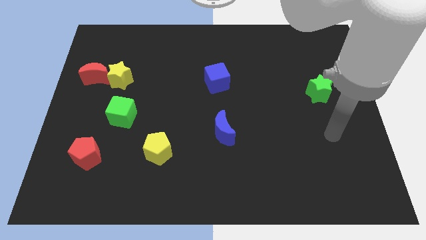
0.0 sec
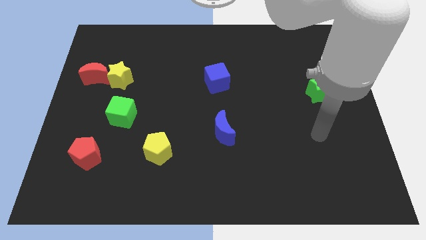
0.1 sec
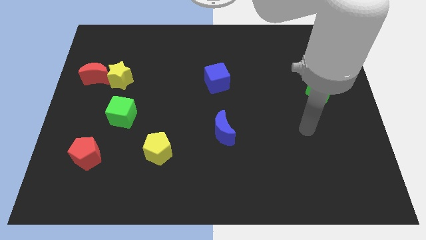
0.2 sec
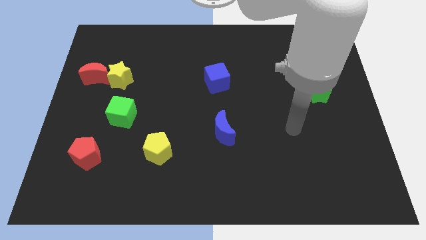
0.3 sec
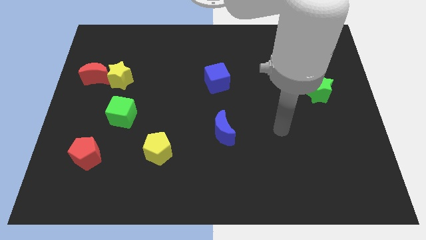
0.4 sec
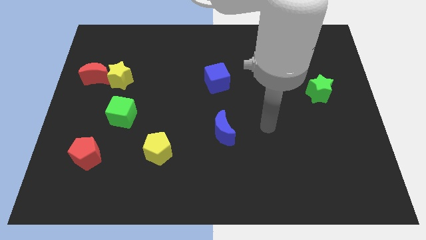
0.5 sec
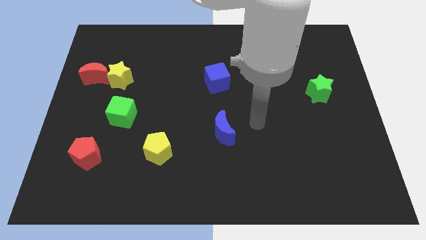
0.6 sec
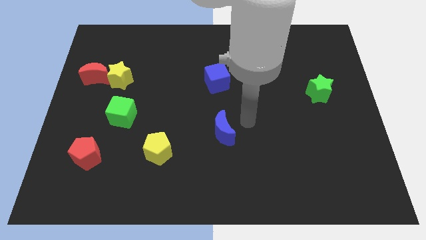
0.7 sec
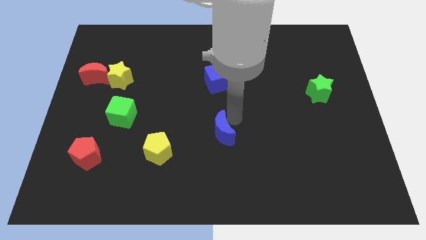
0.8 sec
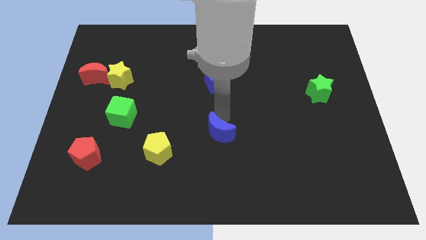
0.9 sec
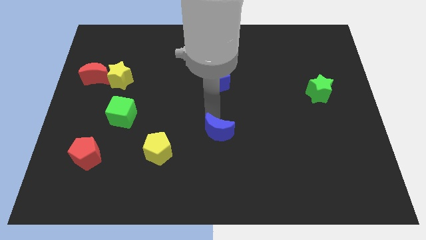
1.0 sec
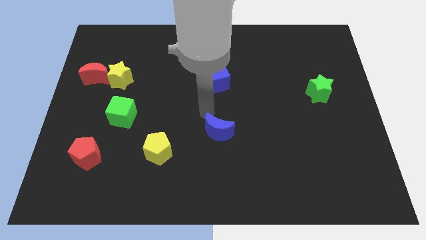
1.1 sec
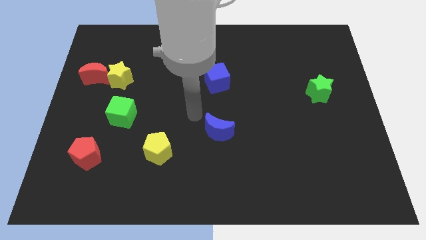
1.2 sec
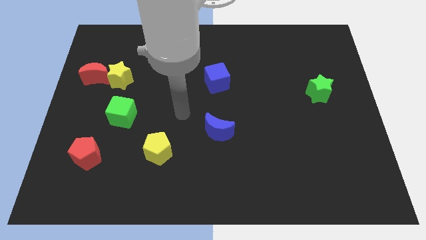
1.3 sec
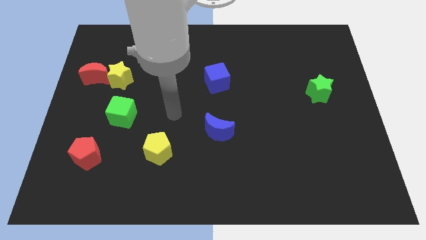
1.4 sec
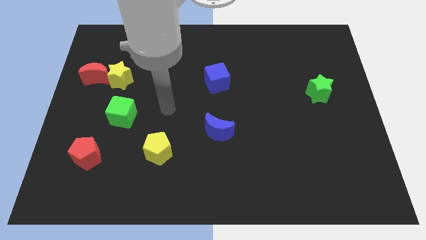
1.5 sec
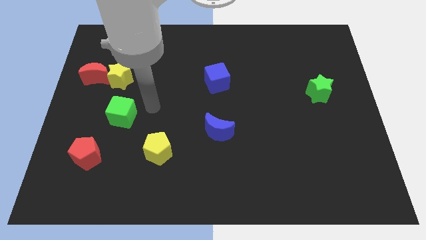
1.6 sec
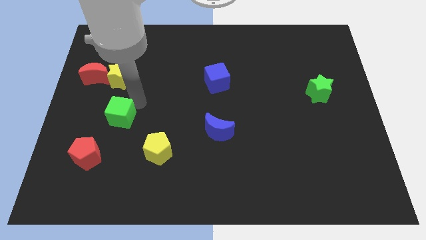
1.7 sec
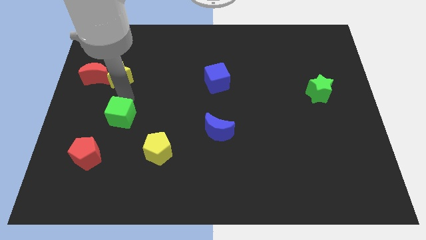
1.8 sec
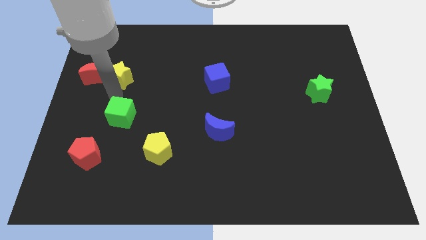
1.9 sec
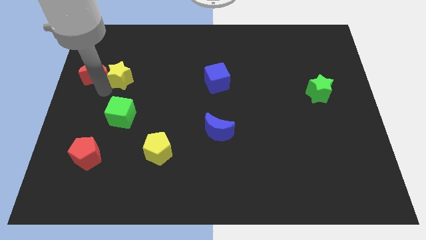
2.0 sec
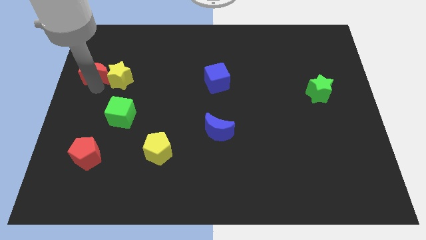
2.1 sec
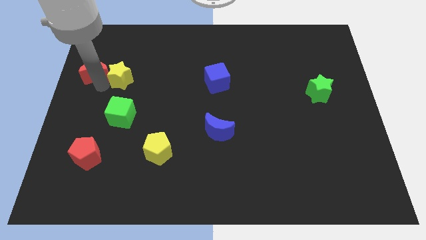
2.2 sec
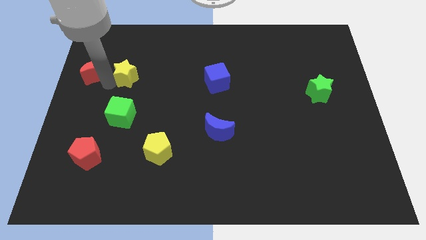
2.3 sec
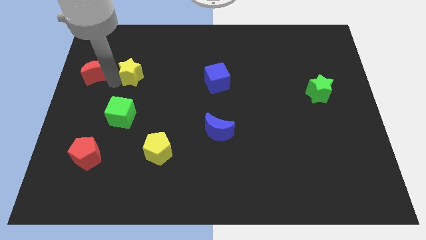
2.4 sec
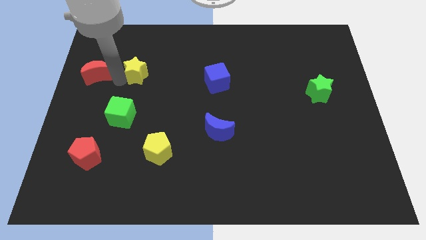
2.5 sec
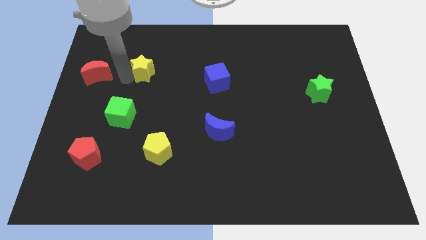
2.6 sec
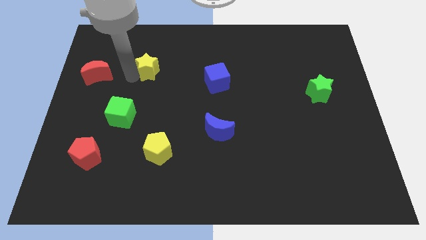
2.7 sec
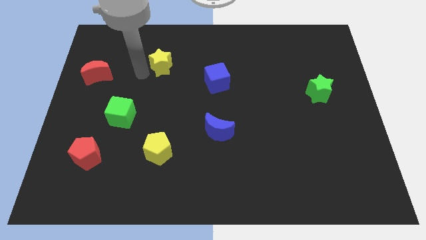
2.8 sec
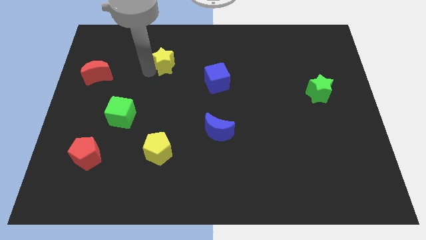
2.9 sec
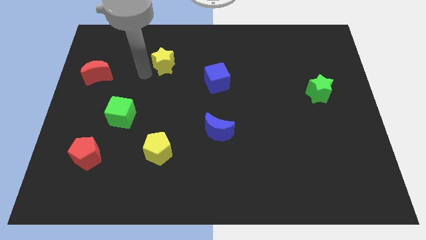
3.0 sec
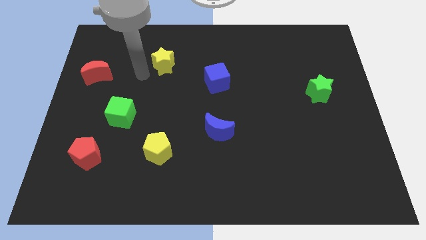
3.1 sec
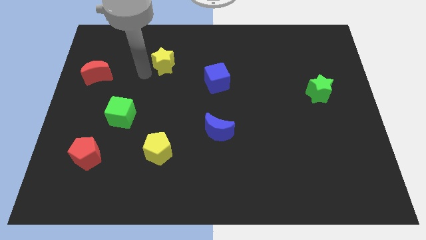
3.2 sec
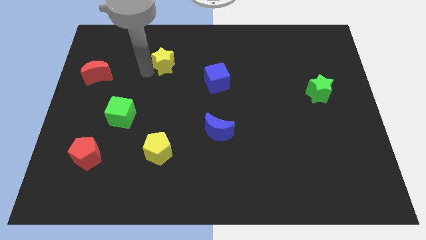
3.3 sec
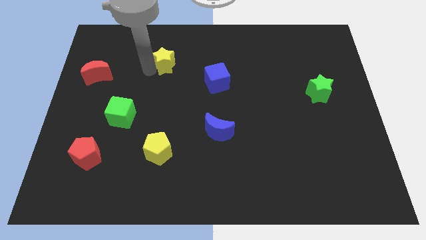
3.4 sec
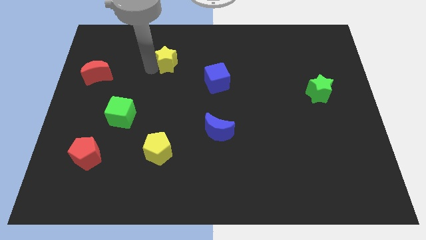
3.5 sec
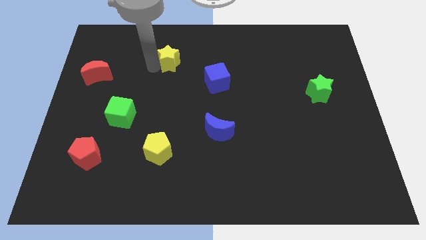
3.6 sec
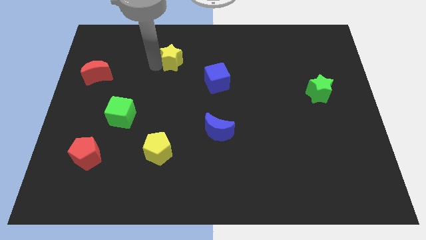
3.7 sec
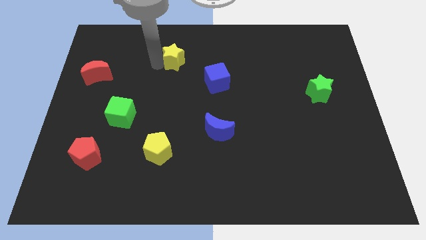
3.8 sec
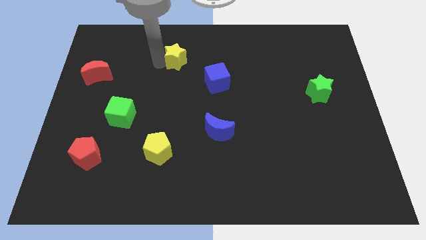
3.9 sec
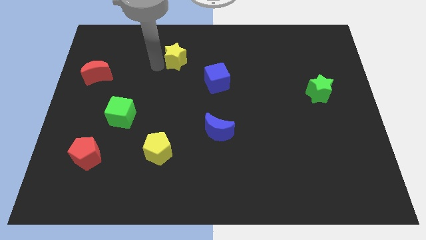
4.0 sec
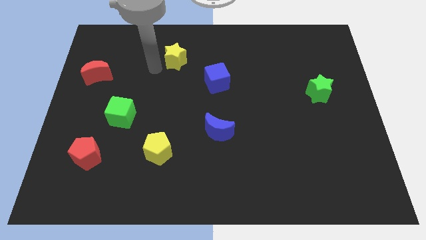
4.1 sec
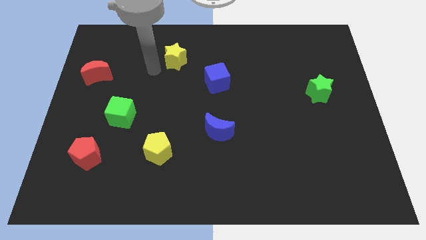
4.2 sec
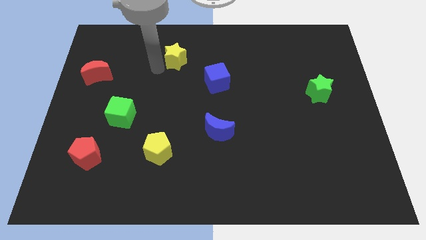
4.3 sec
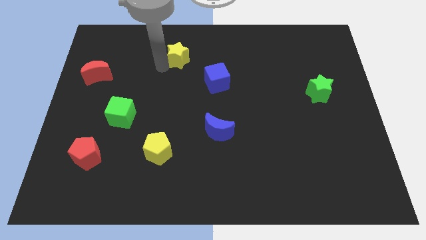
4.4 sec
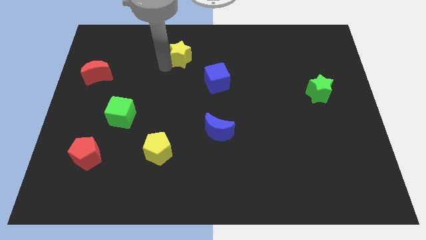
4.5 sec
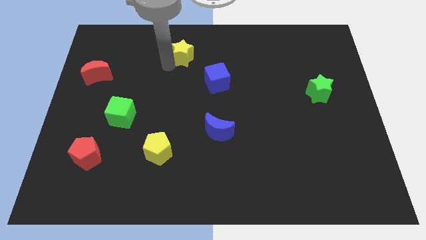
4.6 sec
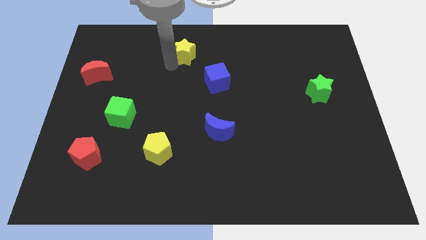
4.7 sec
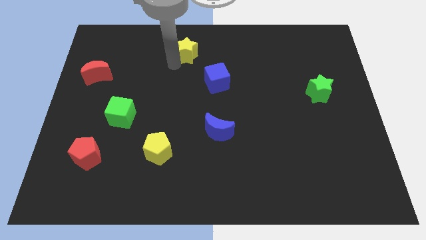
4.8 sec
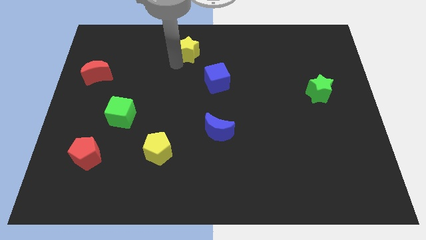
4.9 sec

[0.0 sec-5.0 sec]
slide the yellow star to the top side

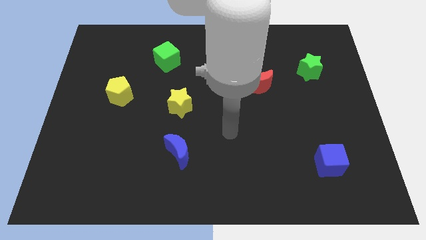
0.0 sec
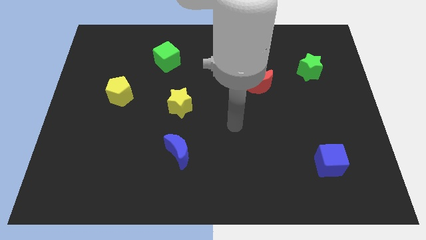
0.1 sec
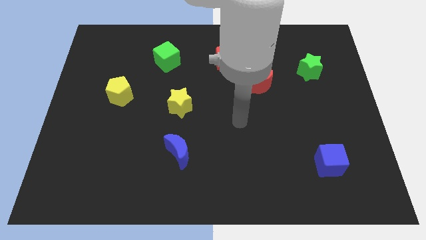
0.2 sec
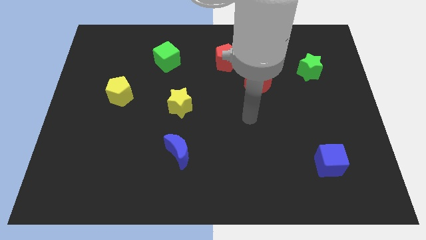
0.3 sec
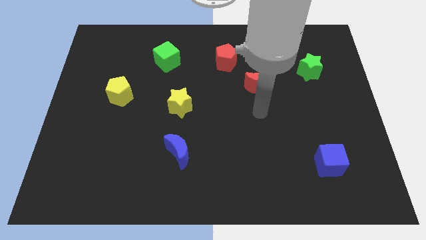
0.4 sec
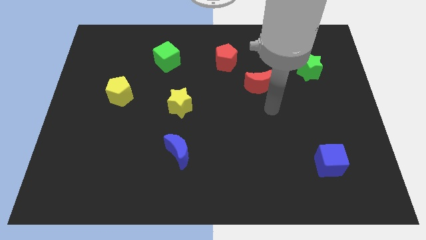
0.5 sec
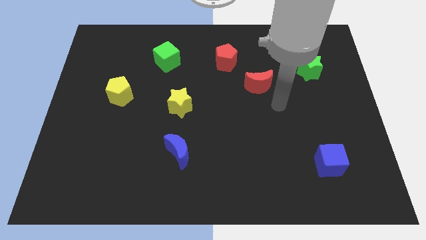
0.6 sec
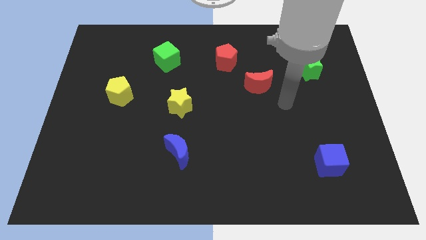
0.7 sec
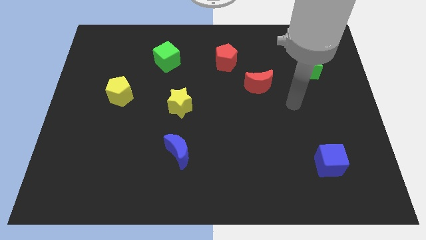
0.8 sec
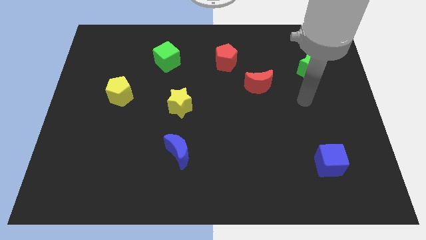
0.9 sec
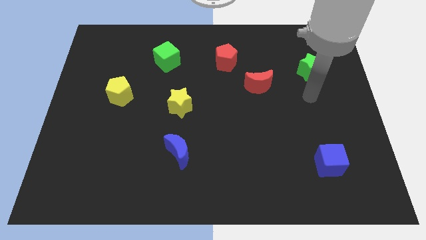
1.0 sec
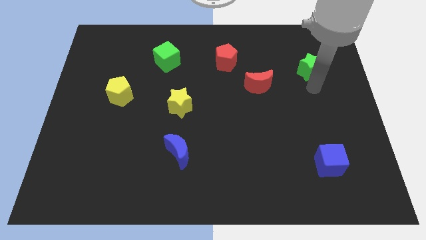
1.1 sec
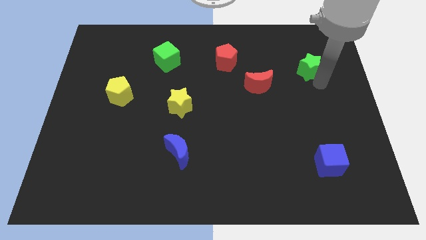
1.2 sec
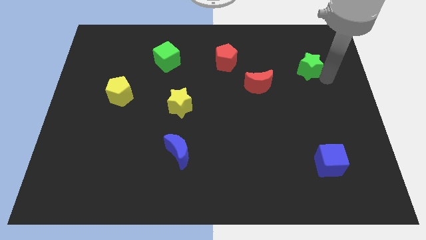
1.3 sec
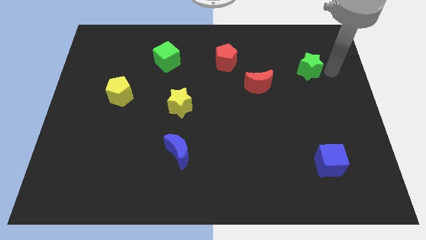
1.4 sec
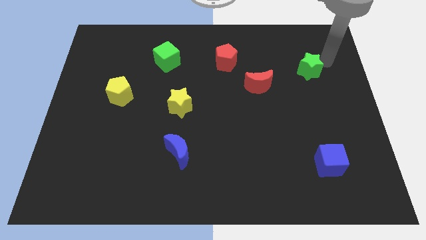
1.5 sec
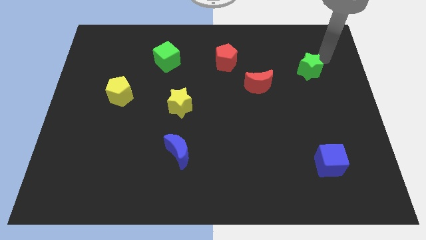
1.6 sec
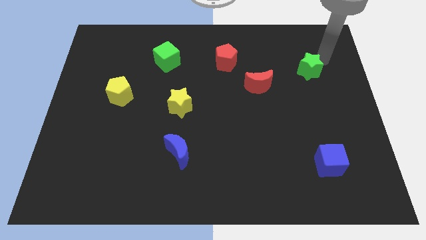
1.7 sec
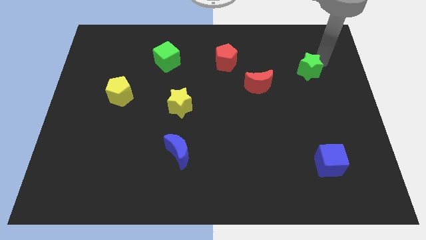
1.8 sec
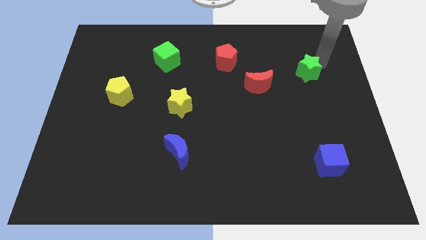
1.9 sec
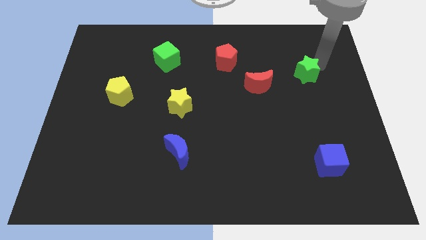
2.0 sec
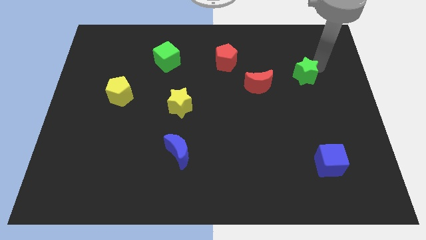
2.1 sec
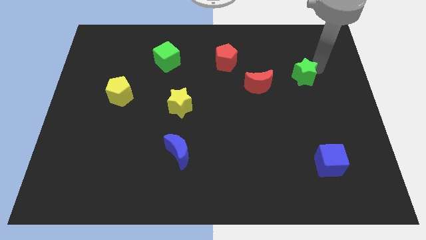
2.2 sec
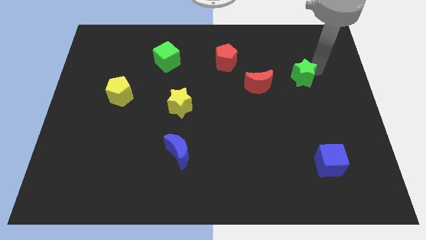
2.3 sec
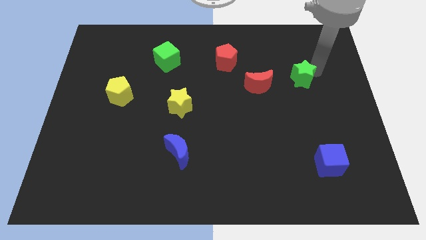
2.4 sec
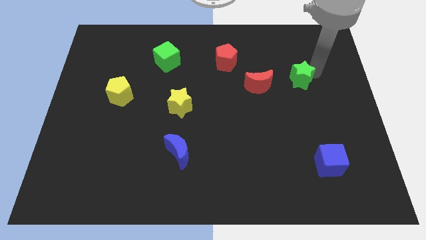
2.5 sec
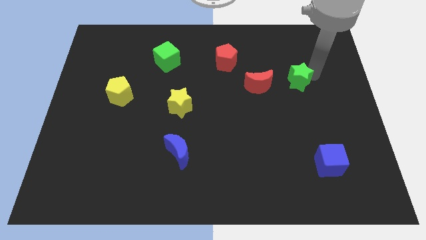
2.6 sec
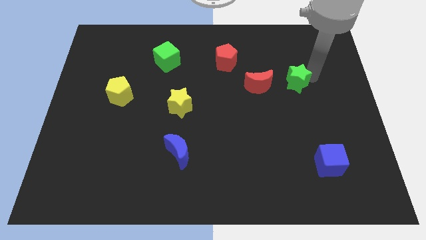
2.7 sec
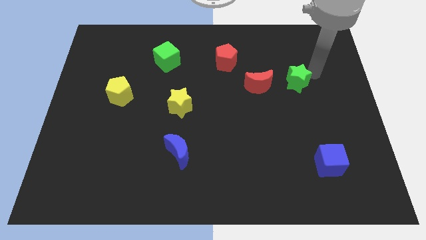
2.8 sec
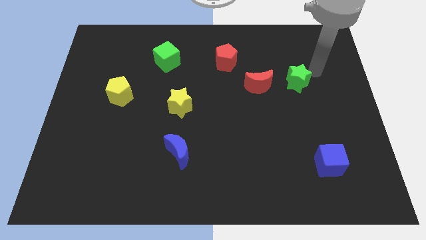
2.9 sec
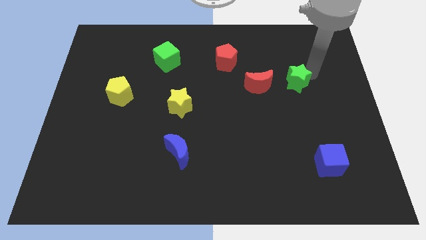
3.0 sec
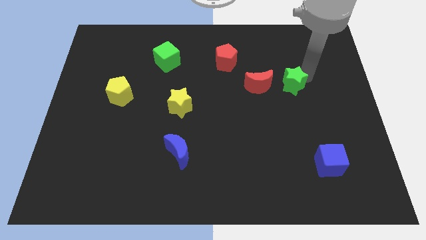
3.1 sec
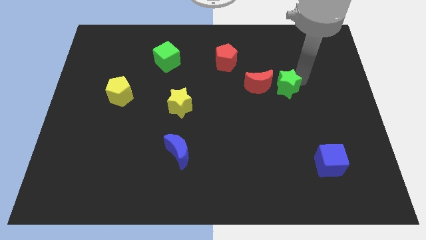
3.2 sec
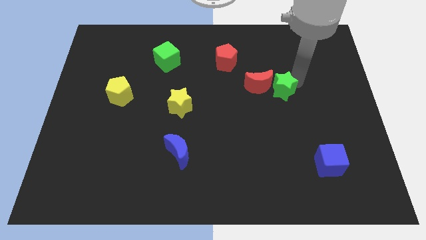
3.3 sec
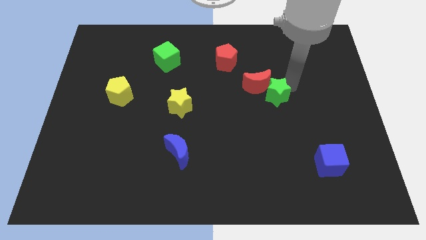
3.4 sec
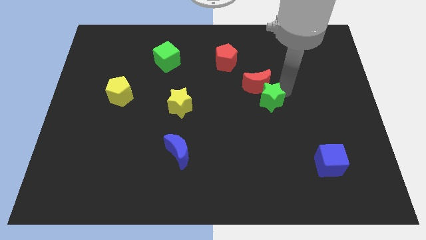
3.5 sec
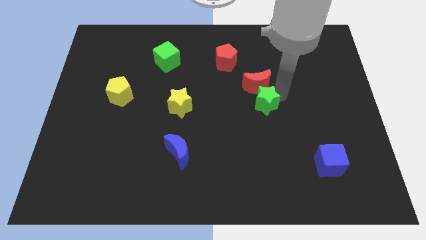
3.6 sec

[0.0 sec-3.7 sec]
move the green star to the center
